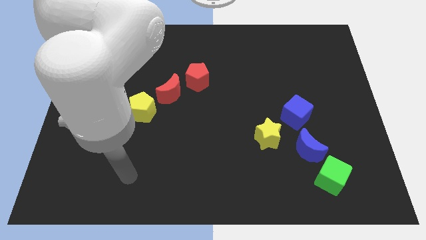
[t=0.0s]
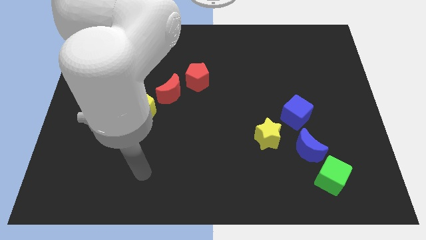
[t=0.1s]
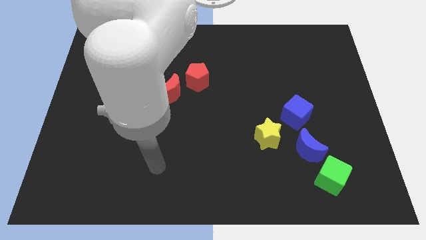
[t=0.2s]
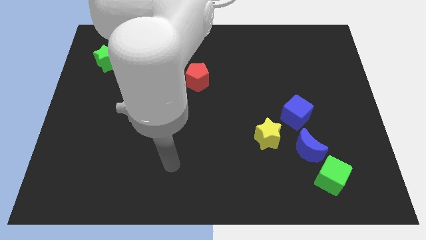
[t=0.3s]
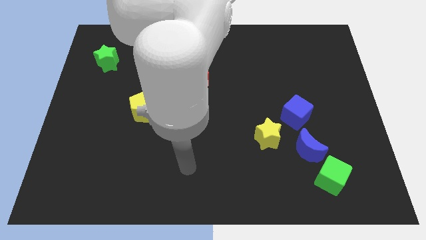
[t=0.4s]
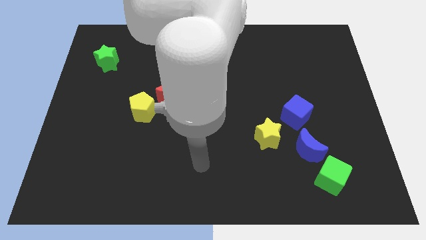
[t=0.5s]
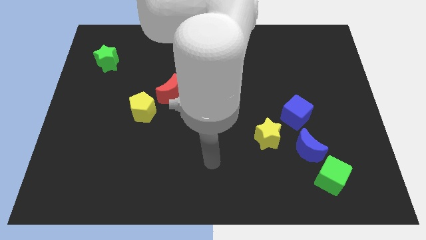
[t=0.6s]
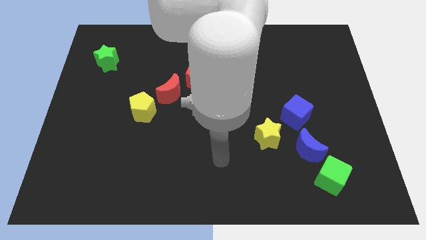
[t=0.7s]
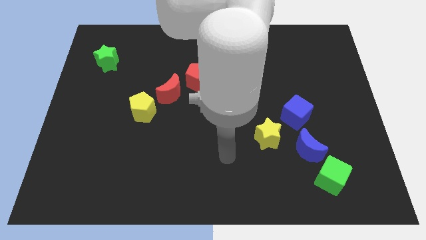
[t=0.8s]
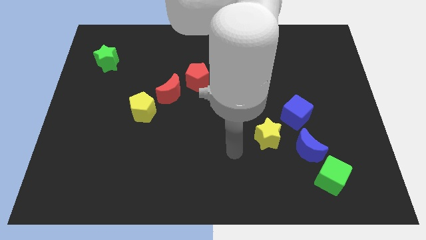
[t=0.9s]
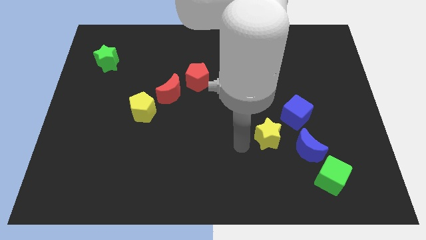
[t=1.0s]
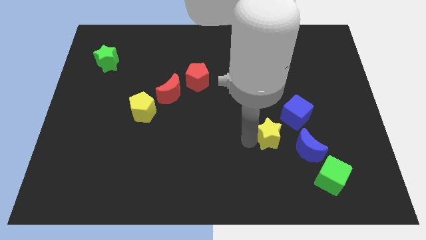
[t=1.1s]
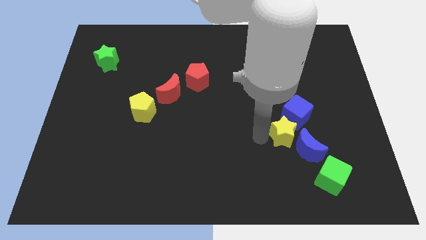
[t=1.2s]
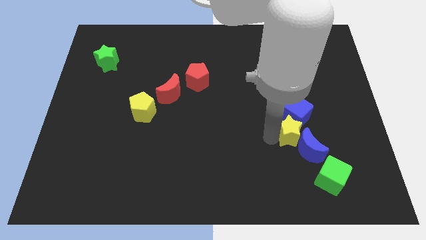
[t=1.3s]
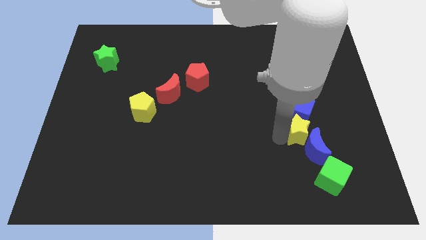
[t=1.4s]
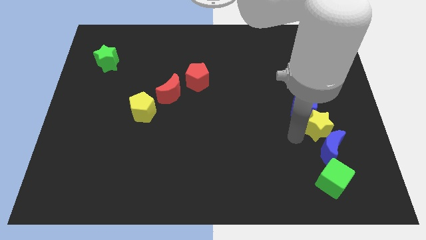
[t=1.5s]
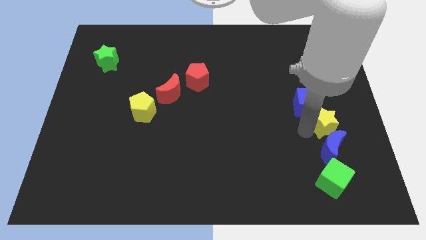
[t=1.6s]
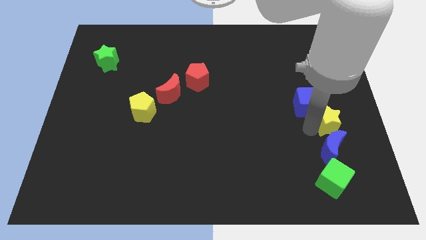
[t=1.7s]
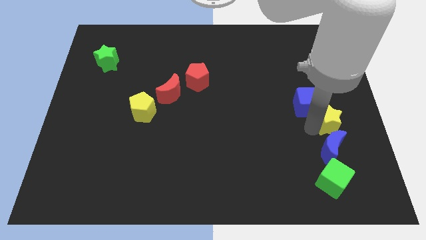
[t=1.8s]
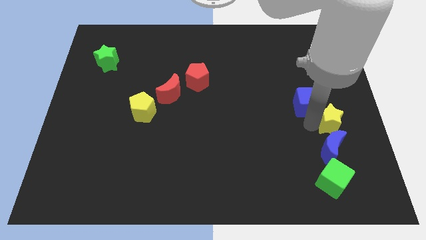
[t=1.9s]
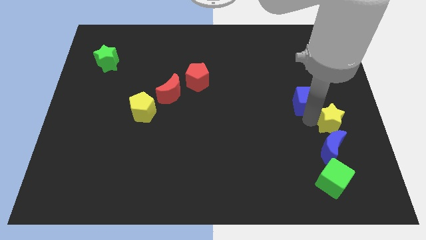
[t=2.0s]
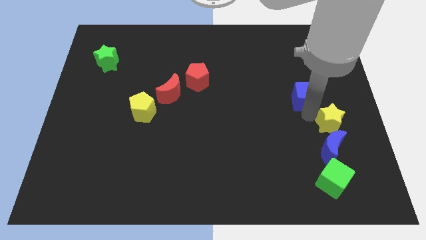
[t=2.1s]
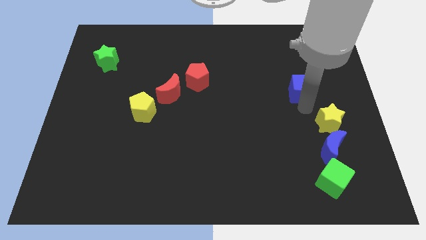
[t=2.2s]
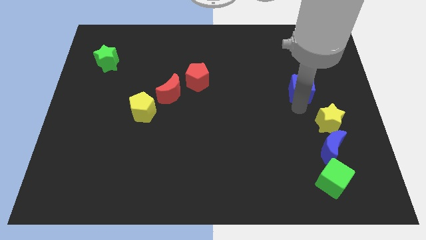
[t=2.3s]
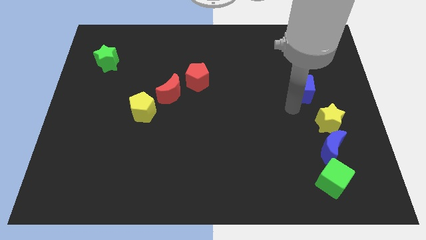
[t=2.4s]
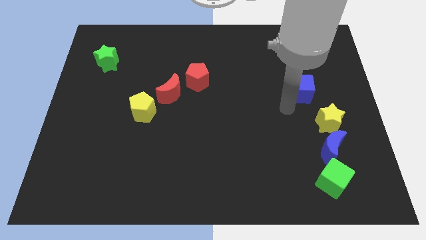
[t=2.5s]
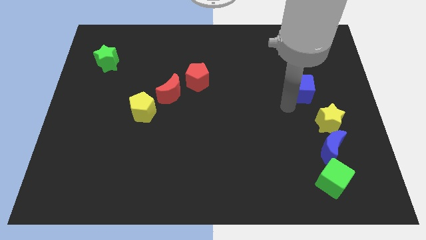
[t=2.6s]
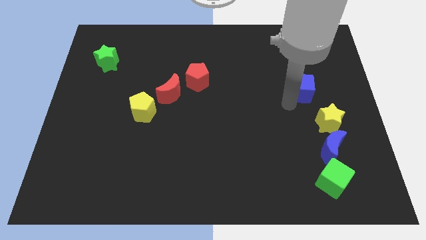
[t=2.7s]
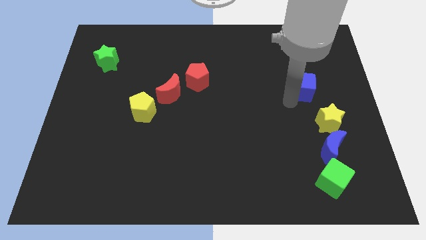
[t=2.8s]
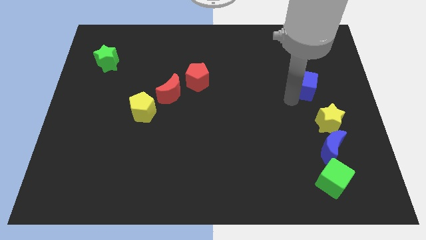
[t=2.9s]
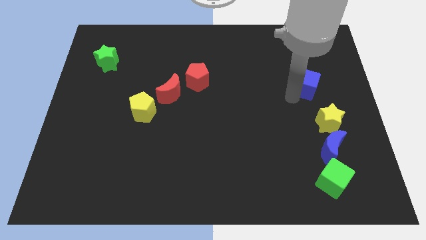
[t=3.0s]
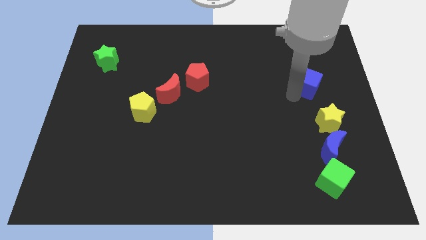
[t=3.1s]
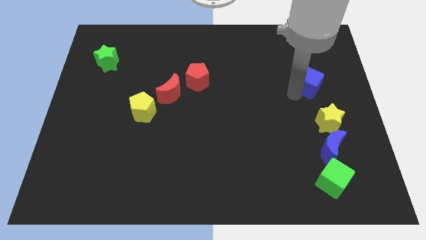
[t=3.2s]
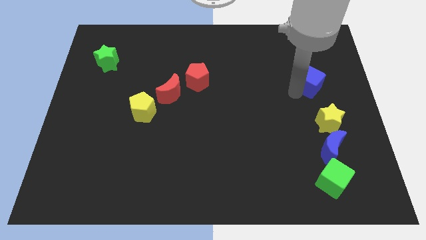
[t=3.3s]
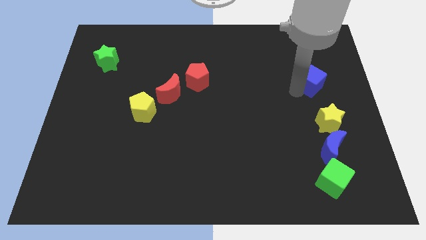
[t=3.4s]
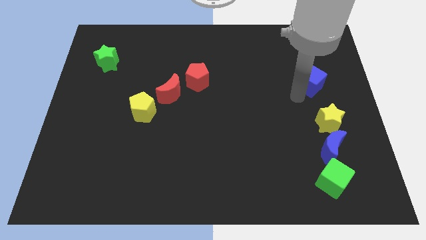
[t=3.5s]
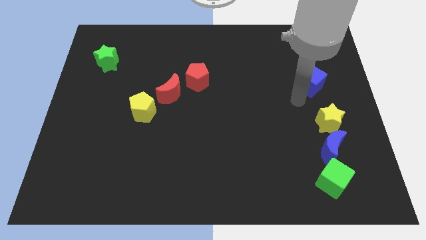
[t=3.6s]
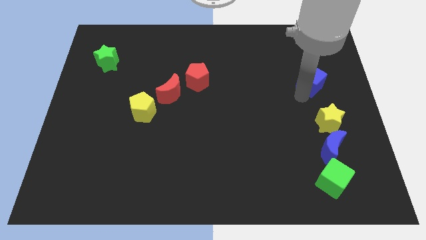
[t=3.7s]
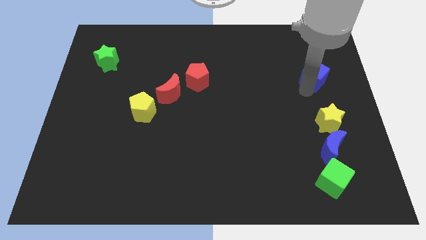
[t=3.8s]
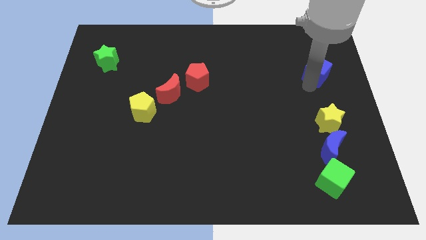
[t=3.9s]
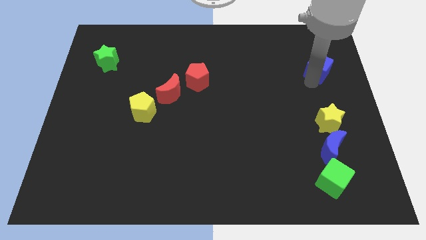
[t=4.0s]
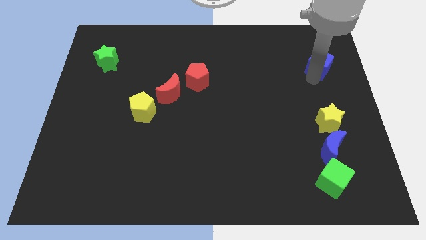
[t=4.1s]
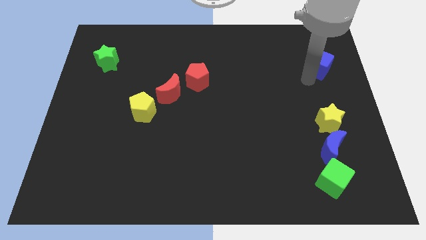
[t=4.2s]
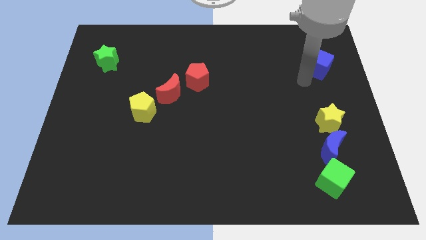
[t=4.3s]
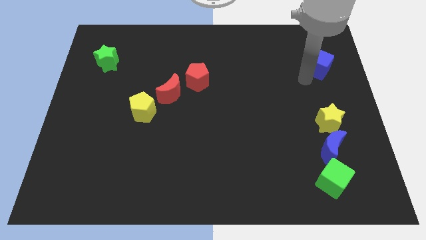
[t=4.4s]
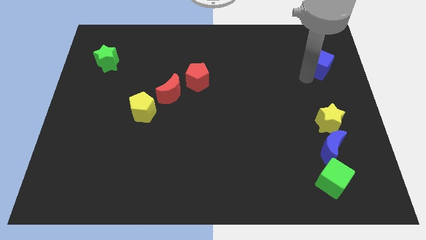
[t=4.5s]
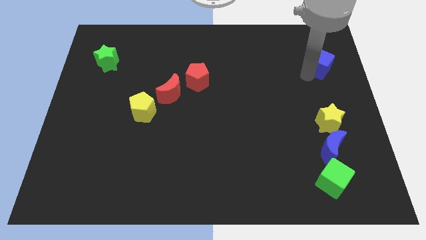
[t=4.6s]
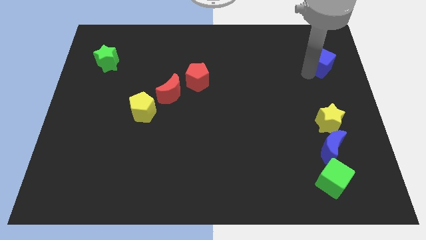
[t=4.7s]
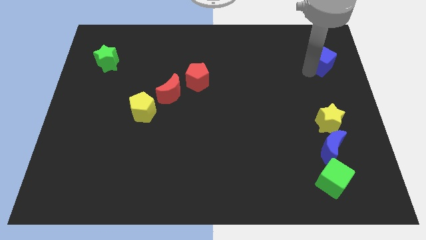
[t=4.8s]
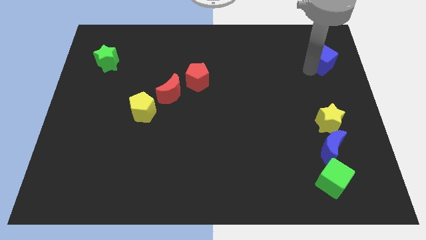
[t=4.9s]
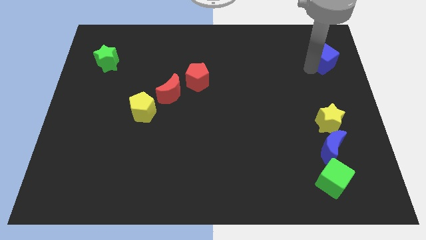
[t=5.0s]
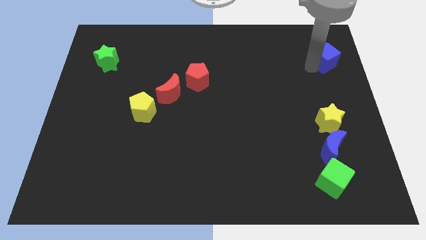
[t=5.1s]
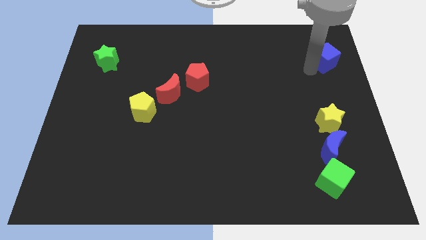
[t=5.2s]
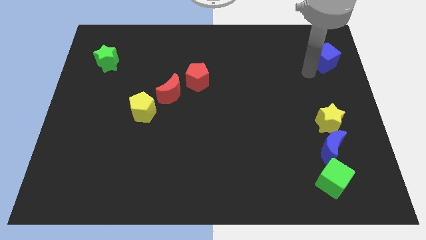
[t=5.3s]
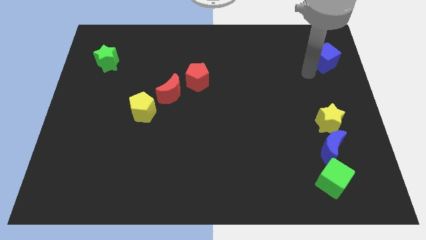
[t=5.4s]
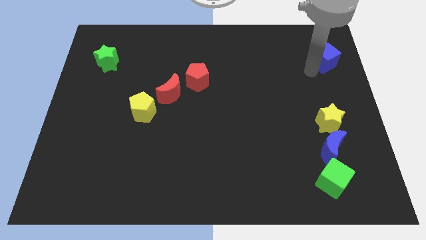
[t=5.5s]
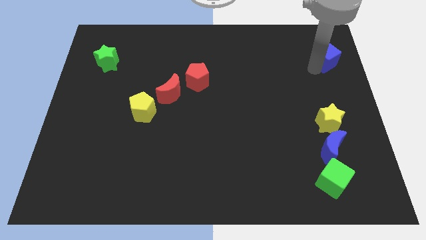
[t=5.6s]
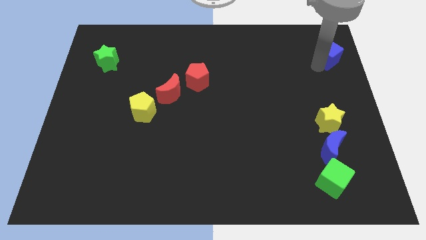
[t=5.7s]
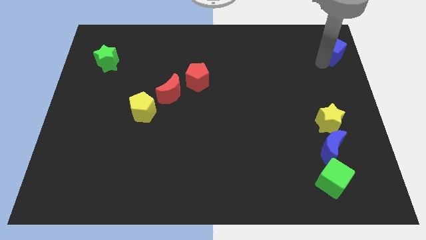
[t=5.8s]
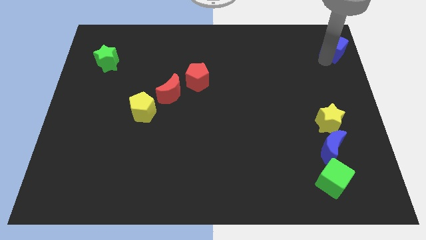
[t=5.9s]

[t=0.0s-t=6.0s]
put the blue cube to the upper right corner
